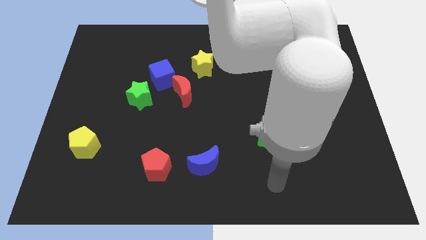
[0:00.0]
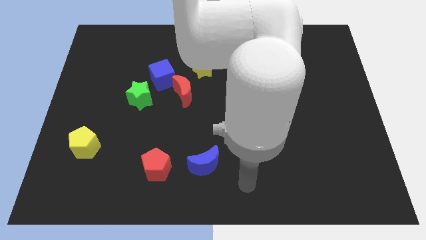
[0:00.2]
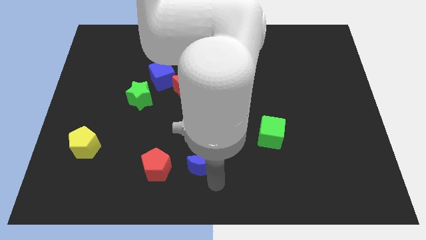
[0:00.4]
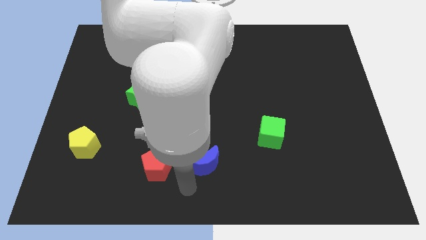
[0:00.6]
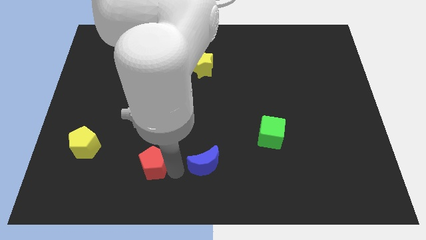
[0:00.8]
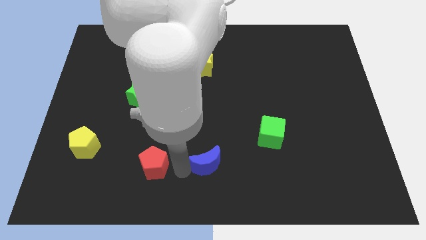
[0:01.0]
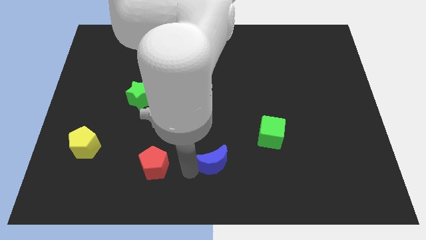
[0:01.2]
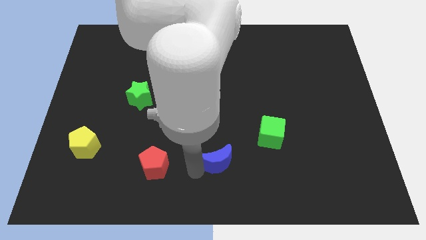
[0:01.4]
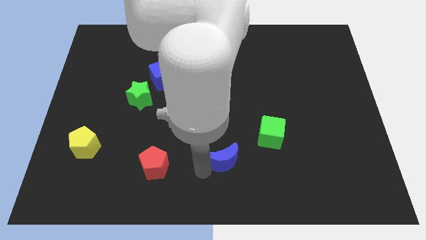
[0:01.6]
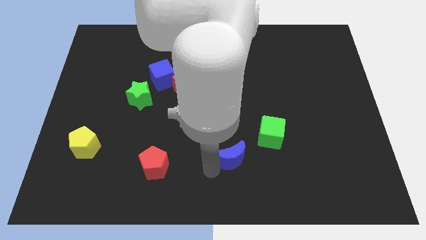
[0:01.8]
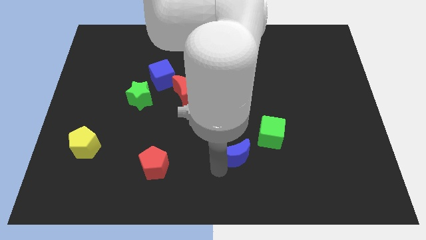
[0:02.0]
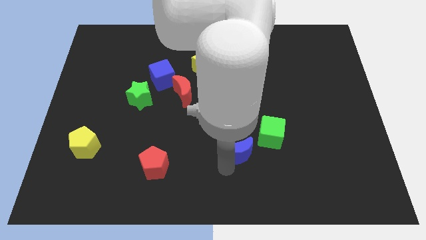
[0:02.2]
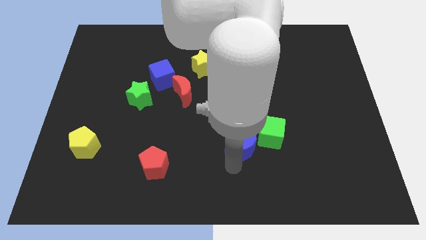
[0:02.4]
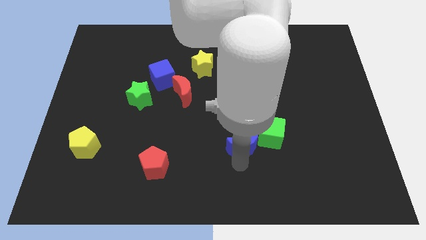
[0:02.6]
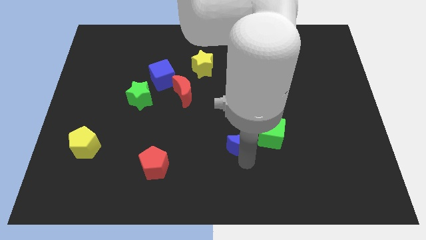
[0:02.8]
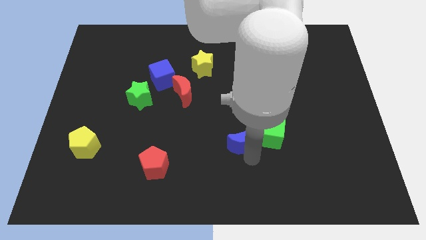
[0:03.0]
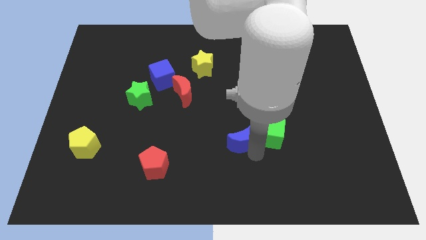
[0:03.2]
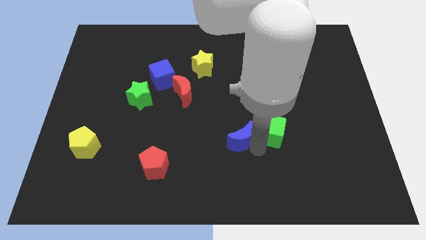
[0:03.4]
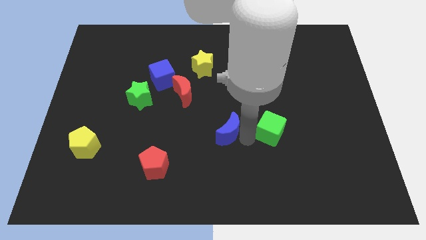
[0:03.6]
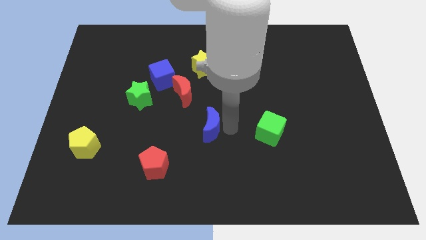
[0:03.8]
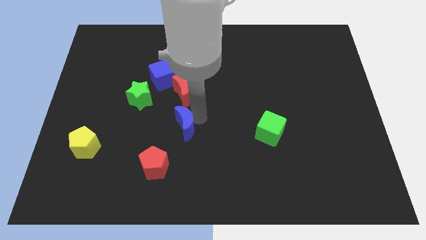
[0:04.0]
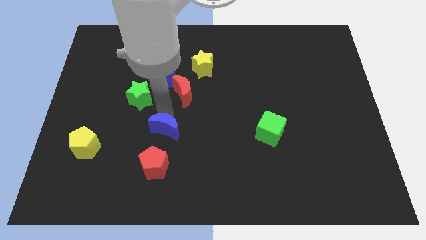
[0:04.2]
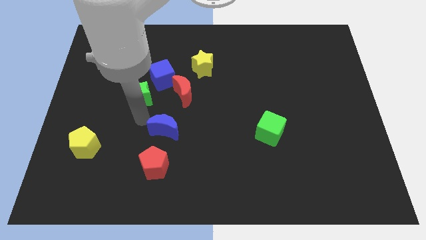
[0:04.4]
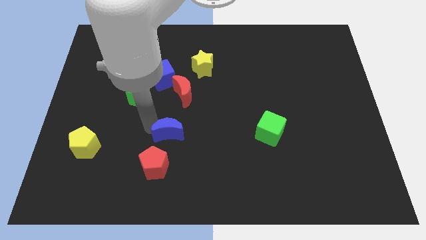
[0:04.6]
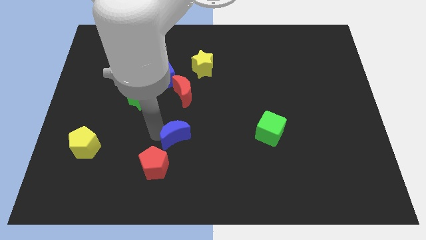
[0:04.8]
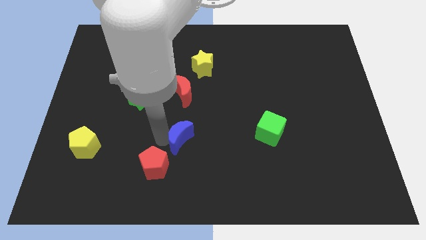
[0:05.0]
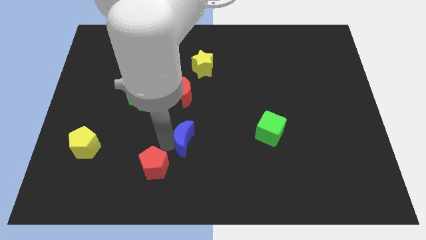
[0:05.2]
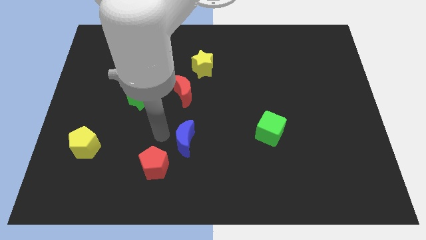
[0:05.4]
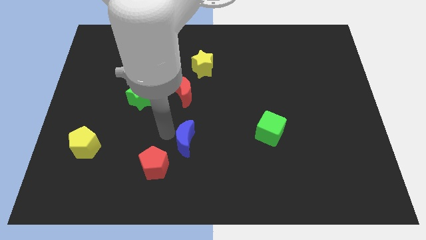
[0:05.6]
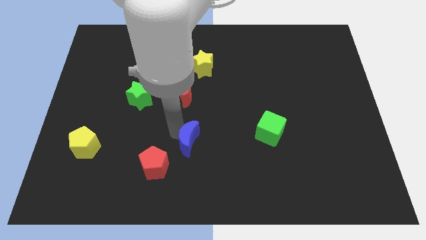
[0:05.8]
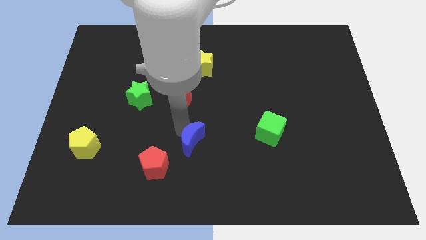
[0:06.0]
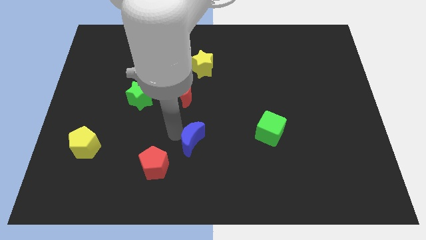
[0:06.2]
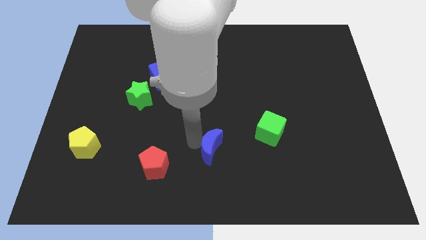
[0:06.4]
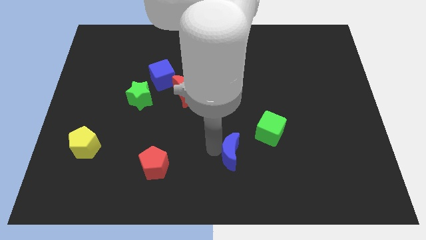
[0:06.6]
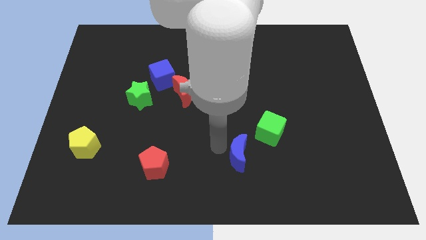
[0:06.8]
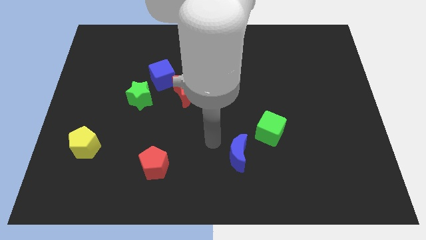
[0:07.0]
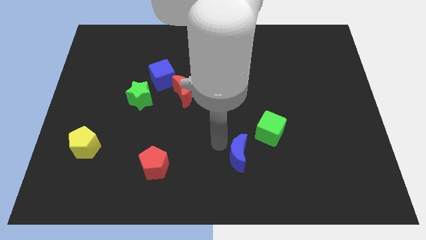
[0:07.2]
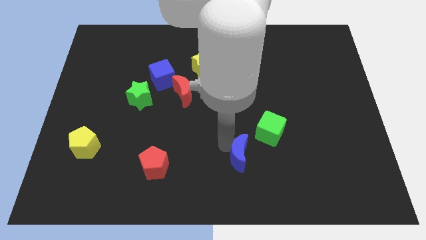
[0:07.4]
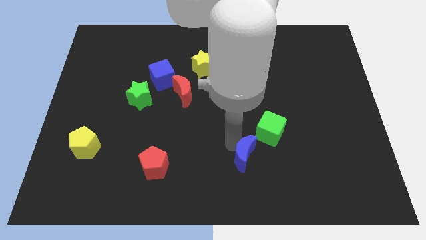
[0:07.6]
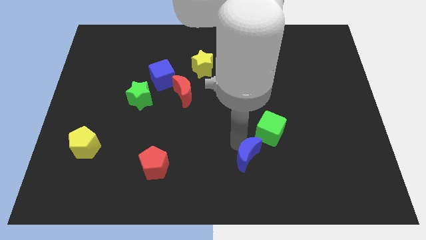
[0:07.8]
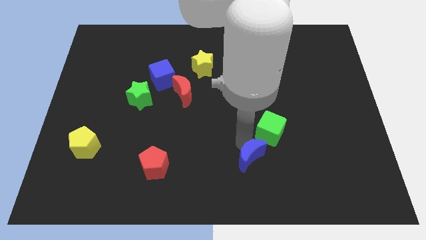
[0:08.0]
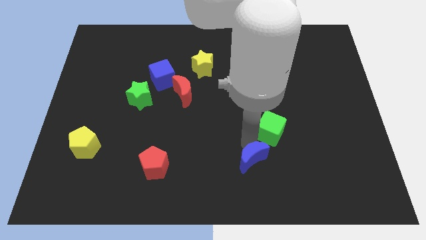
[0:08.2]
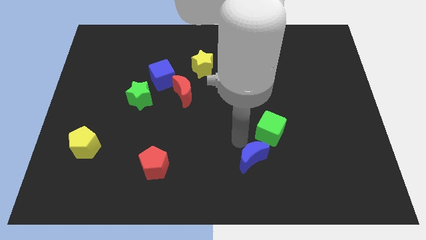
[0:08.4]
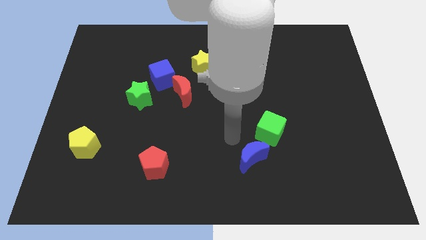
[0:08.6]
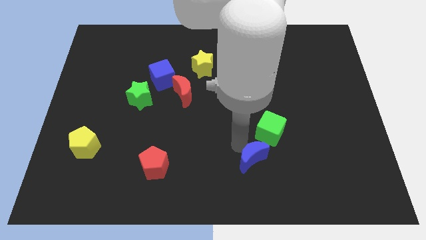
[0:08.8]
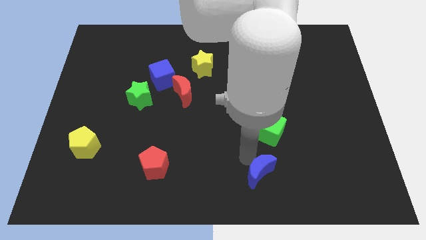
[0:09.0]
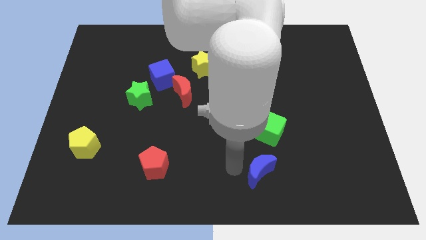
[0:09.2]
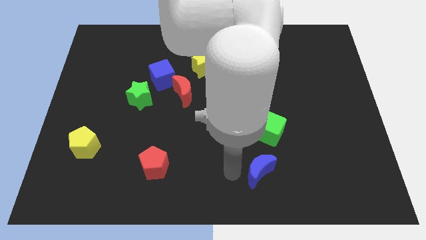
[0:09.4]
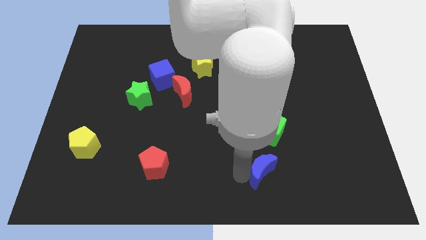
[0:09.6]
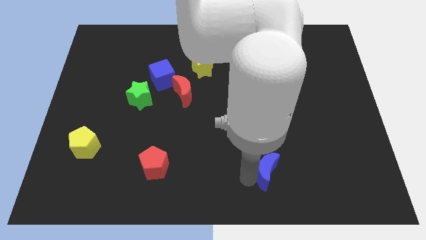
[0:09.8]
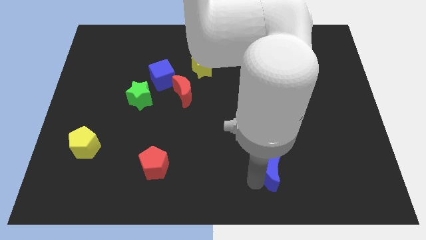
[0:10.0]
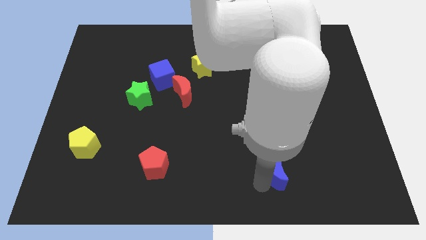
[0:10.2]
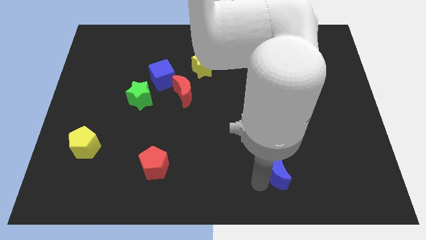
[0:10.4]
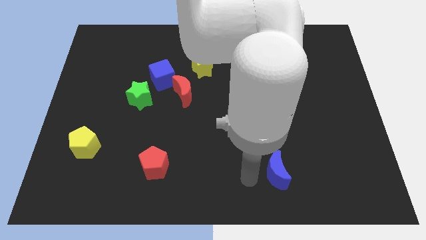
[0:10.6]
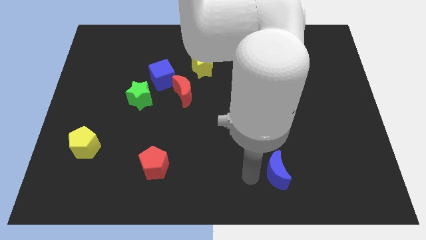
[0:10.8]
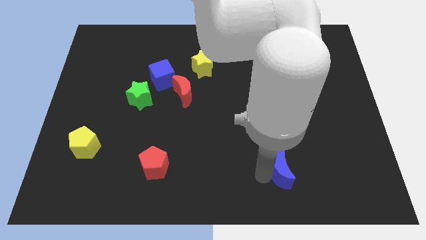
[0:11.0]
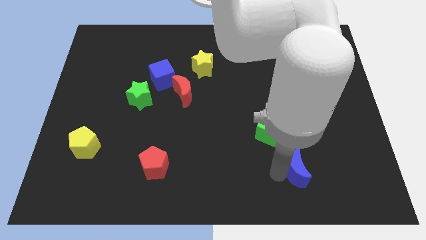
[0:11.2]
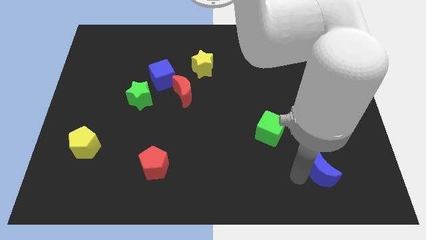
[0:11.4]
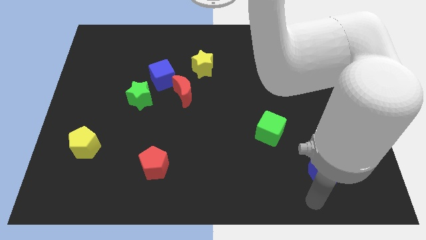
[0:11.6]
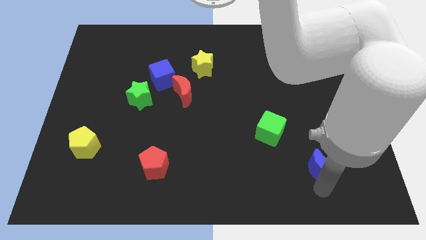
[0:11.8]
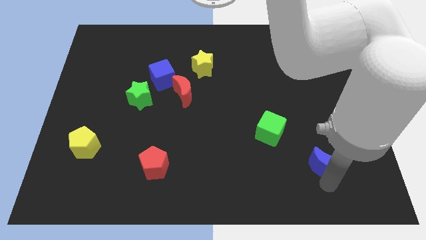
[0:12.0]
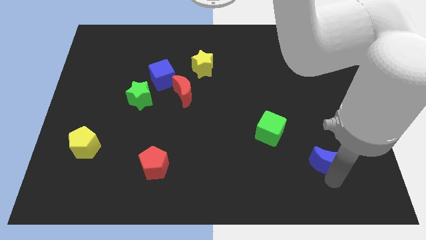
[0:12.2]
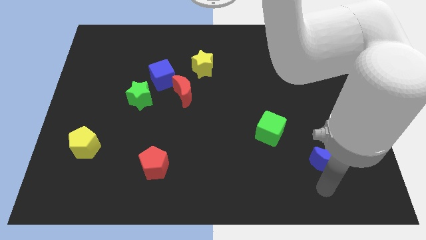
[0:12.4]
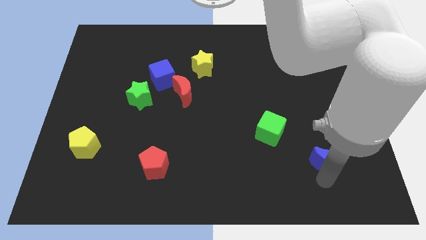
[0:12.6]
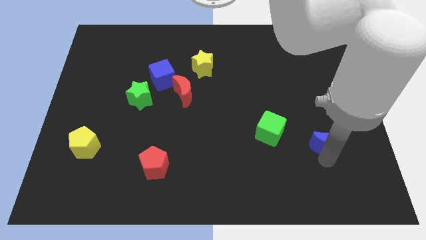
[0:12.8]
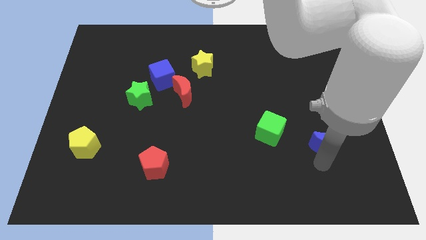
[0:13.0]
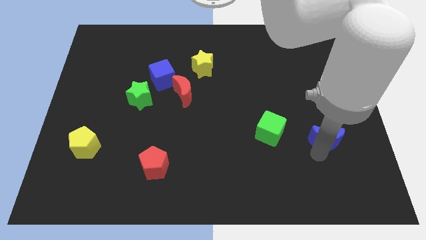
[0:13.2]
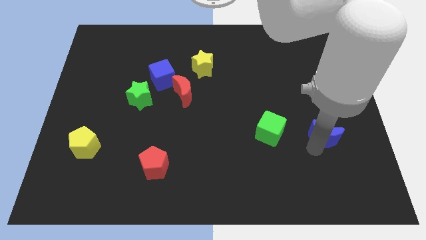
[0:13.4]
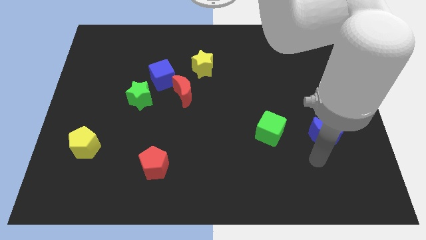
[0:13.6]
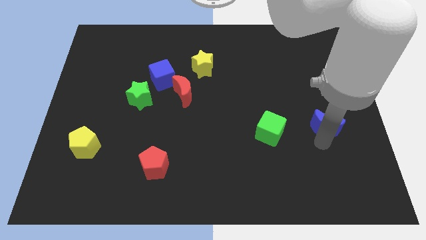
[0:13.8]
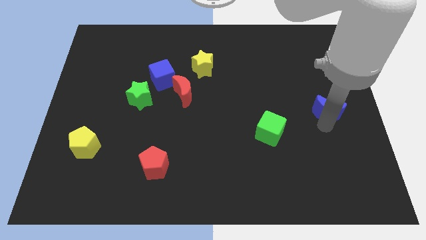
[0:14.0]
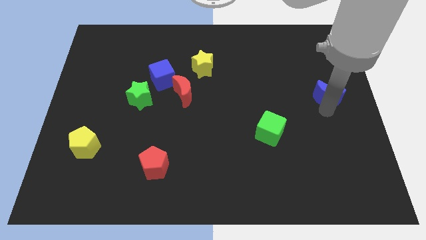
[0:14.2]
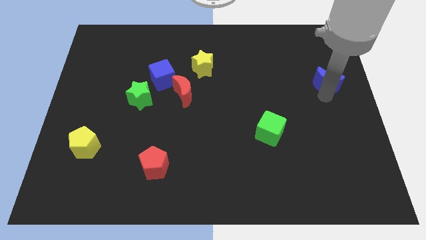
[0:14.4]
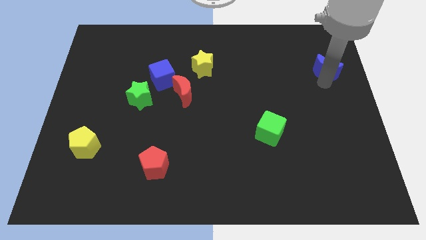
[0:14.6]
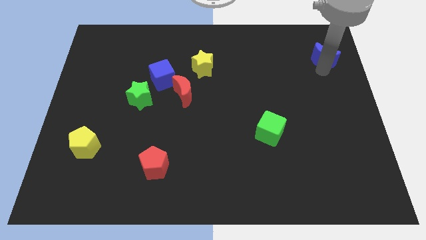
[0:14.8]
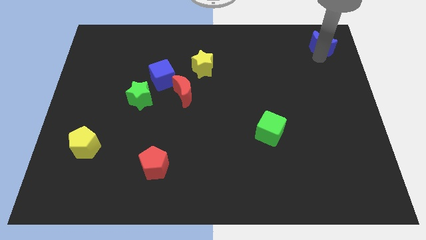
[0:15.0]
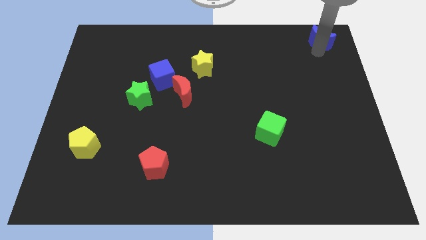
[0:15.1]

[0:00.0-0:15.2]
slide the blue moon to the upper right corner
